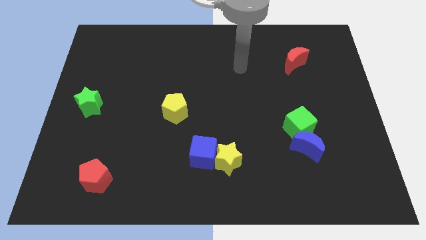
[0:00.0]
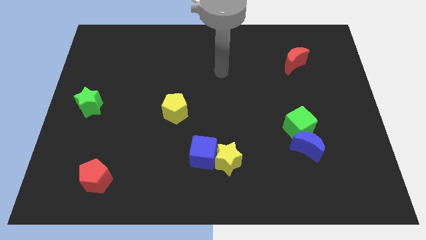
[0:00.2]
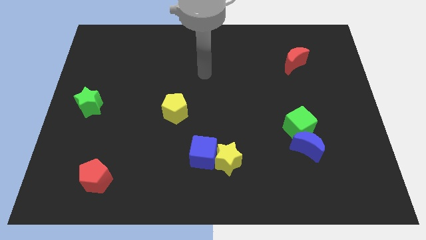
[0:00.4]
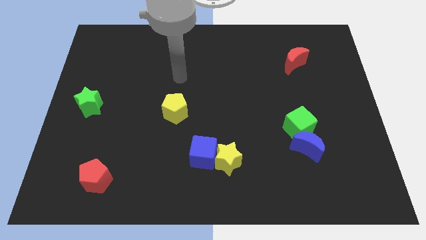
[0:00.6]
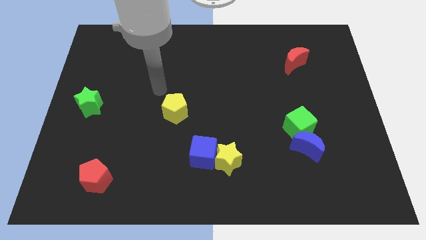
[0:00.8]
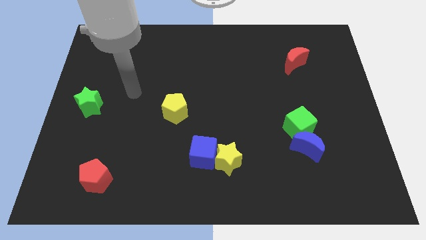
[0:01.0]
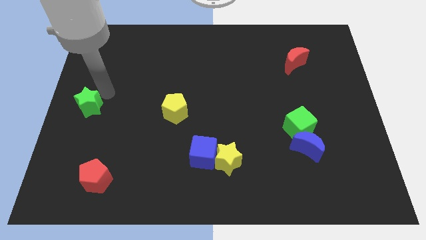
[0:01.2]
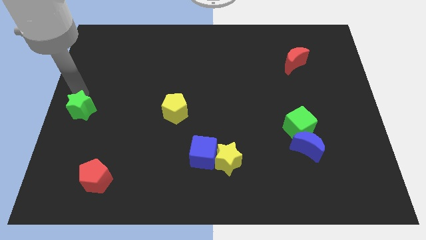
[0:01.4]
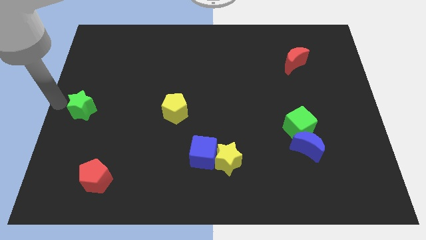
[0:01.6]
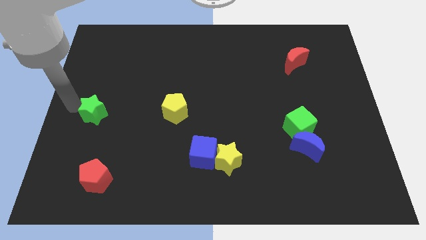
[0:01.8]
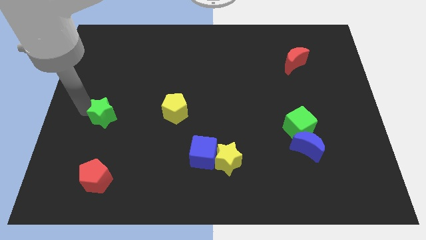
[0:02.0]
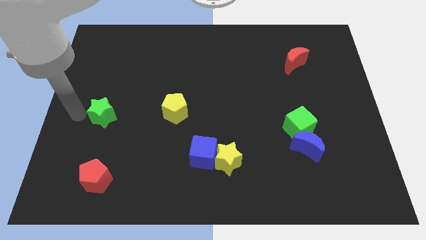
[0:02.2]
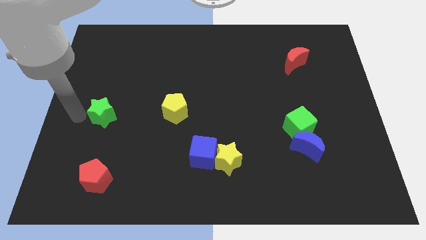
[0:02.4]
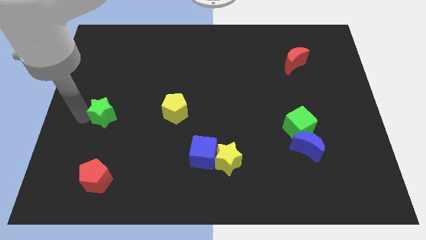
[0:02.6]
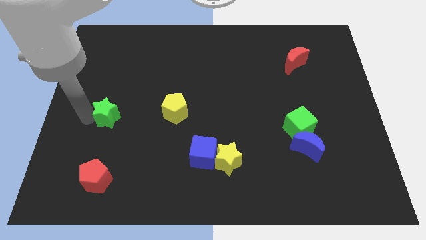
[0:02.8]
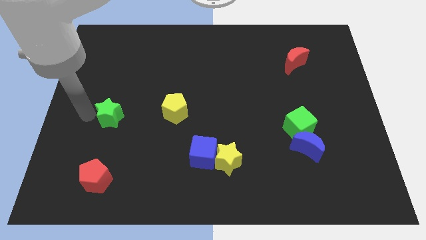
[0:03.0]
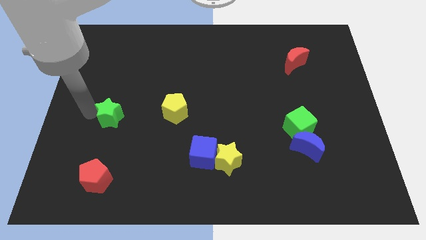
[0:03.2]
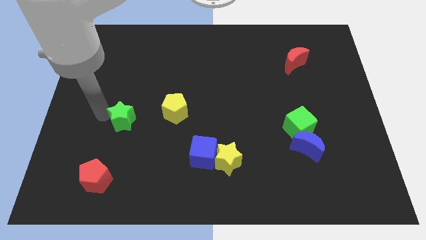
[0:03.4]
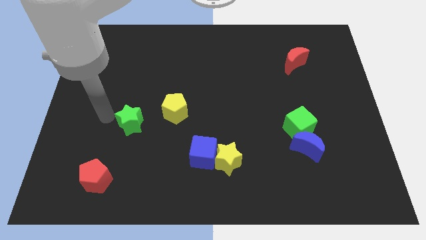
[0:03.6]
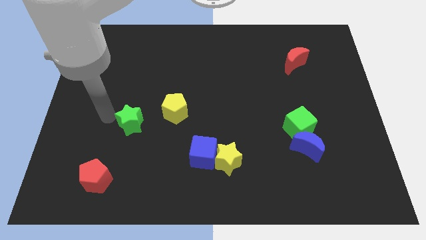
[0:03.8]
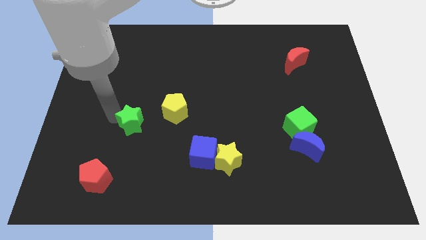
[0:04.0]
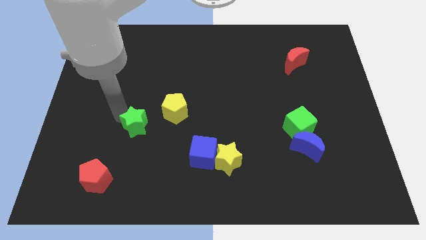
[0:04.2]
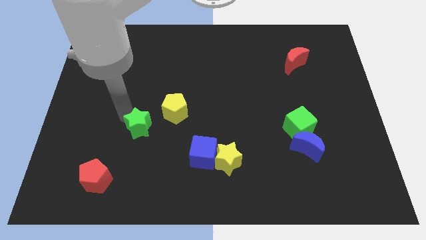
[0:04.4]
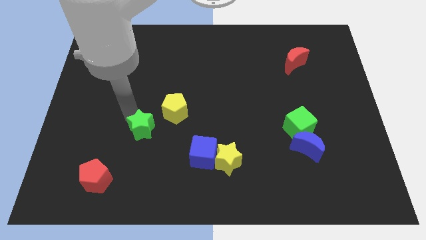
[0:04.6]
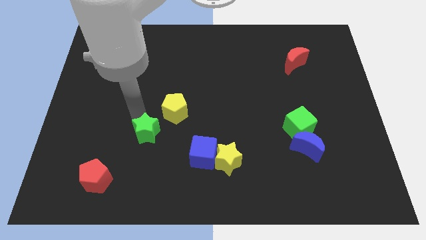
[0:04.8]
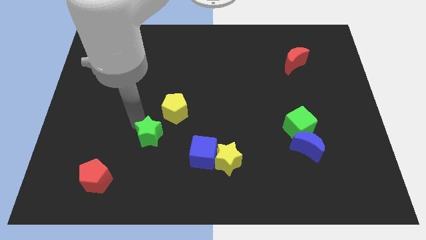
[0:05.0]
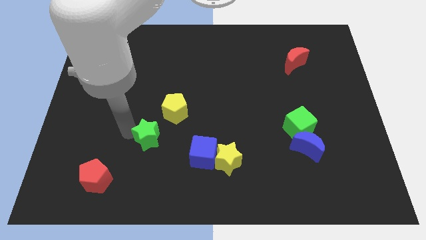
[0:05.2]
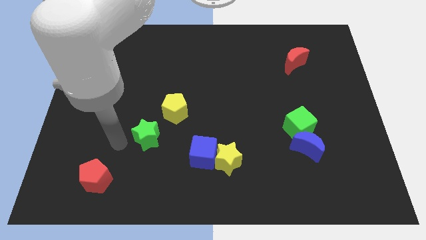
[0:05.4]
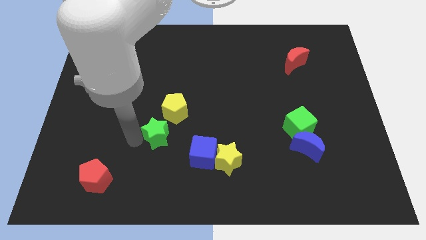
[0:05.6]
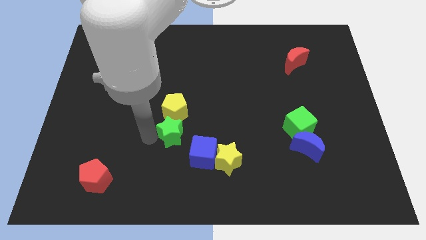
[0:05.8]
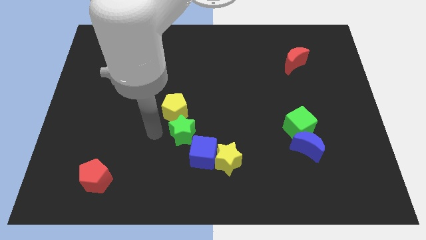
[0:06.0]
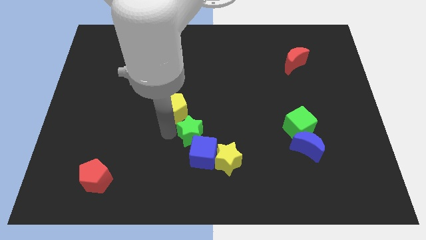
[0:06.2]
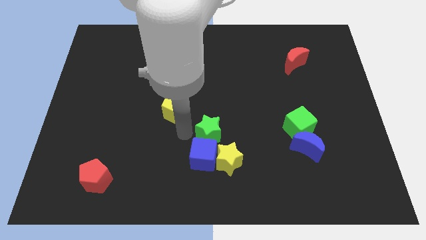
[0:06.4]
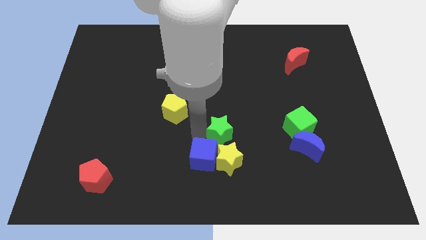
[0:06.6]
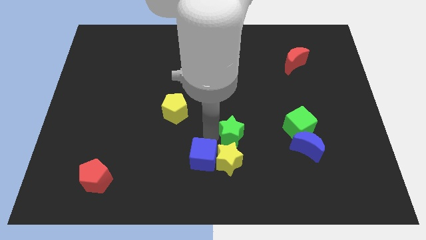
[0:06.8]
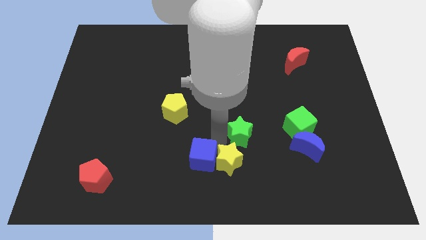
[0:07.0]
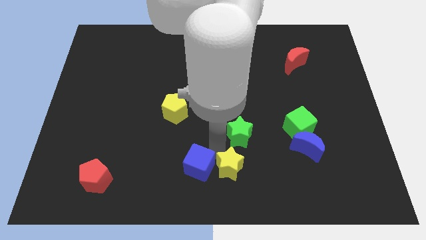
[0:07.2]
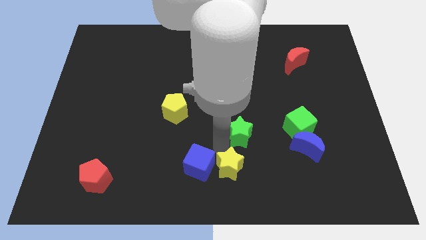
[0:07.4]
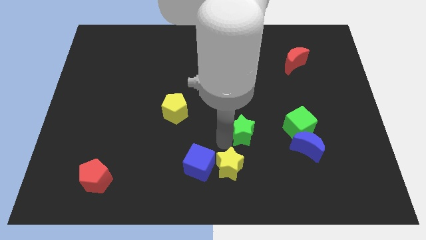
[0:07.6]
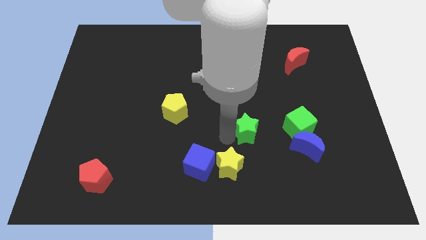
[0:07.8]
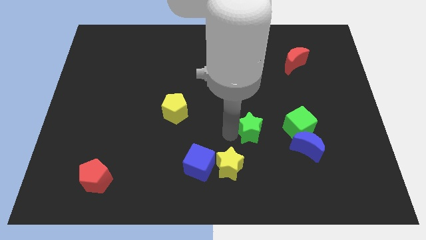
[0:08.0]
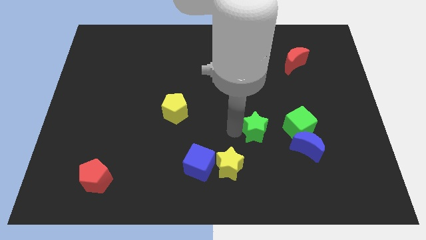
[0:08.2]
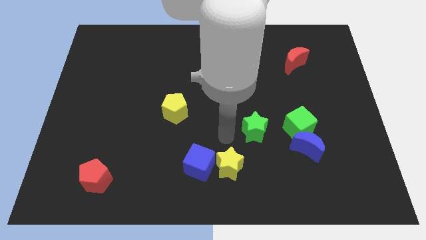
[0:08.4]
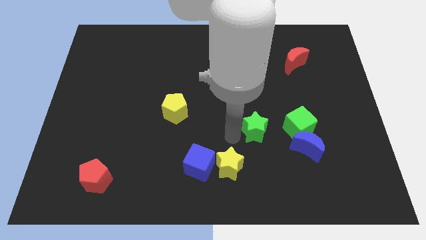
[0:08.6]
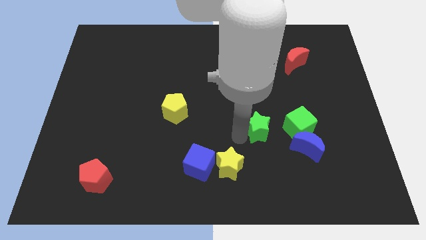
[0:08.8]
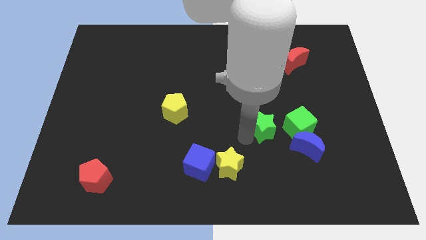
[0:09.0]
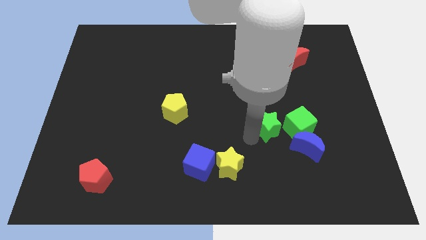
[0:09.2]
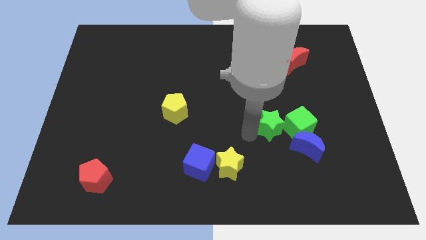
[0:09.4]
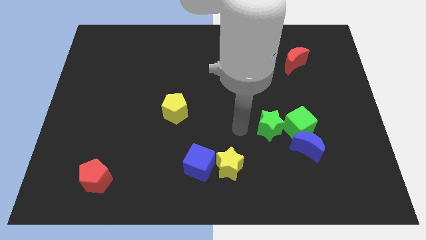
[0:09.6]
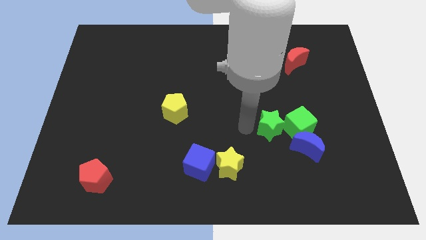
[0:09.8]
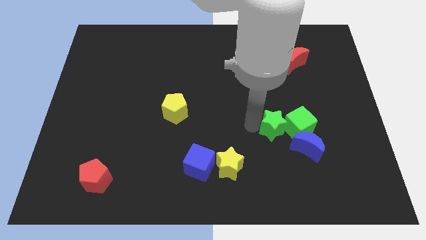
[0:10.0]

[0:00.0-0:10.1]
move the green star to the green cube

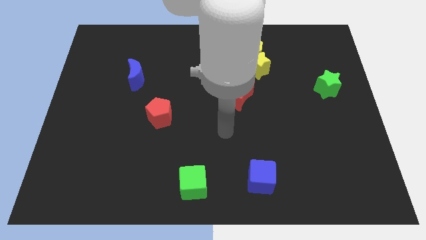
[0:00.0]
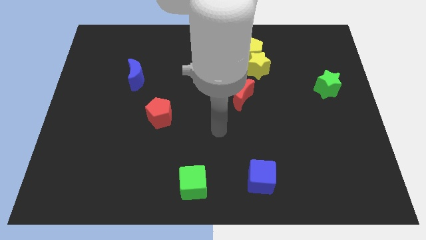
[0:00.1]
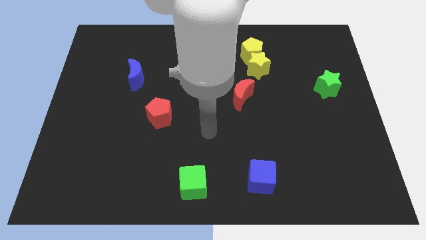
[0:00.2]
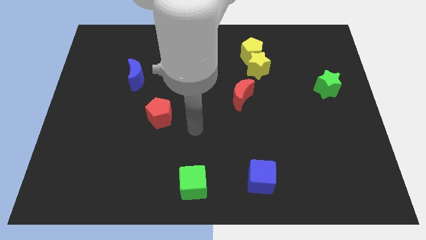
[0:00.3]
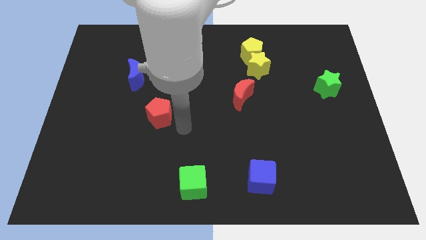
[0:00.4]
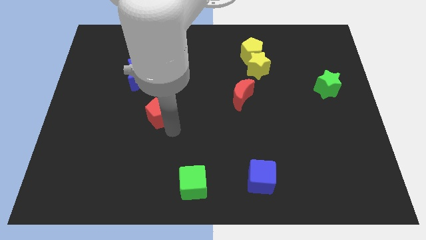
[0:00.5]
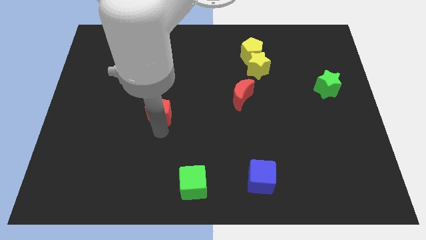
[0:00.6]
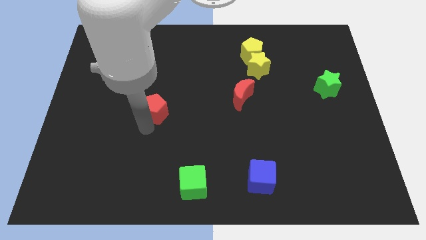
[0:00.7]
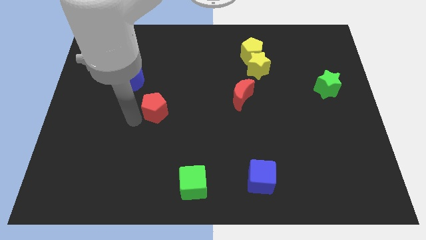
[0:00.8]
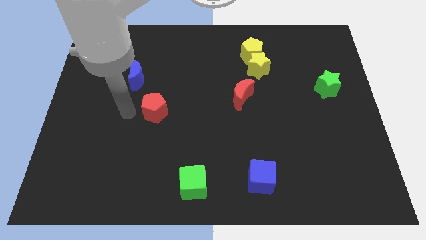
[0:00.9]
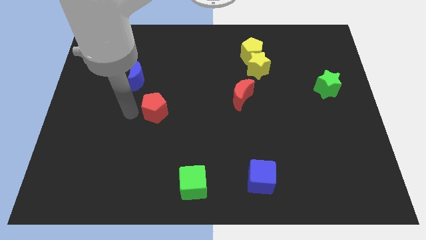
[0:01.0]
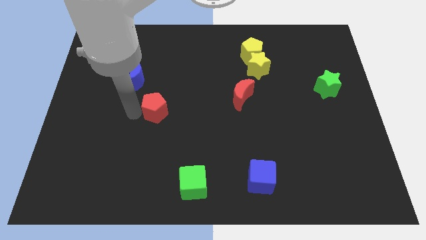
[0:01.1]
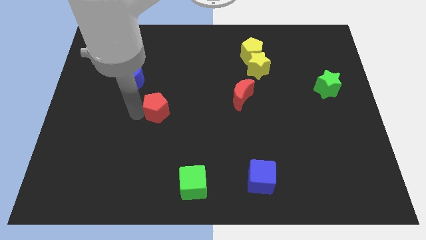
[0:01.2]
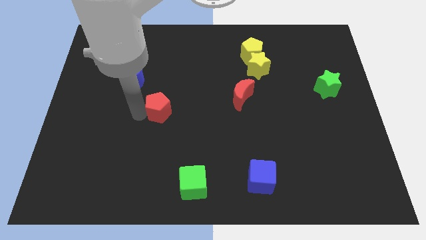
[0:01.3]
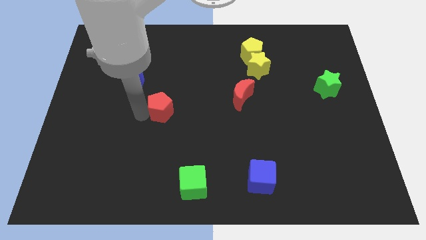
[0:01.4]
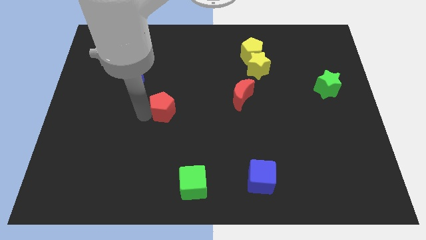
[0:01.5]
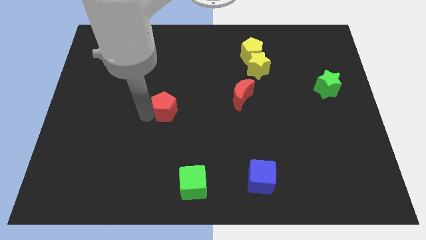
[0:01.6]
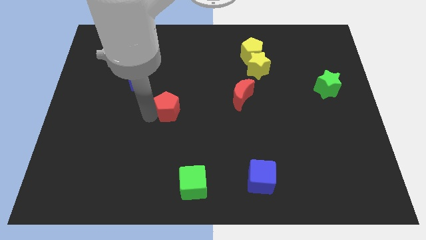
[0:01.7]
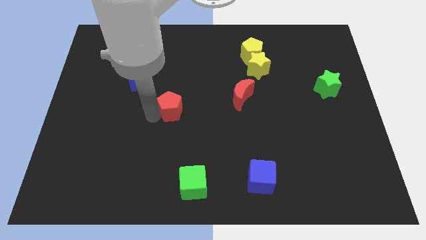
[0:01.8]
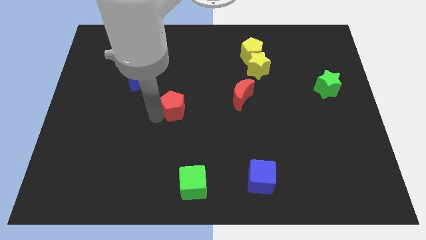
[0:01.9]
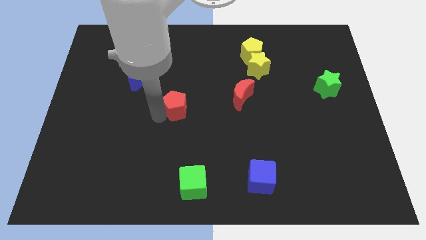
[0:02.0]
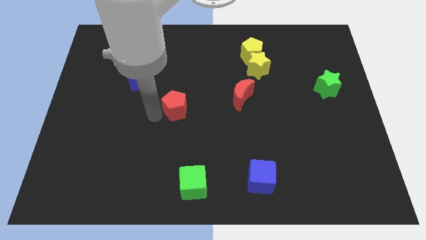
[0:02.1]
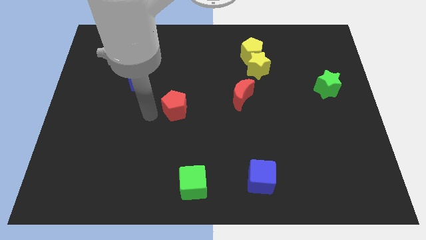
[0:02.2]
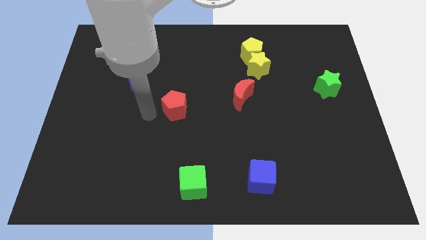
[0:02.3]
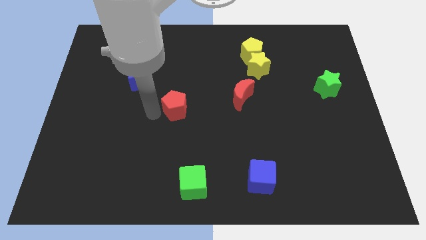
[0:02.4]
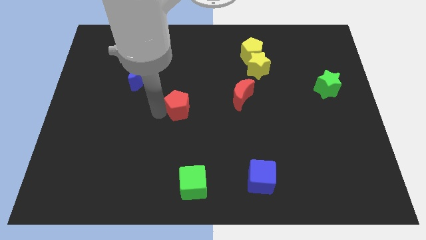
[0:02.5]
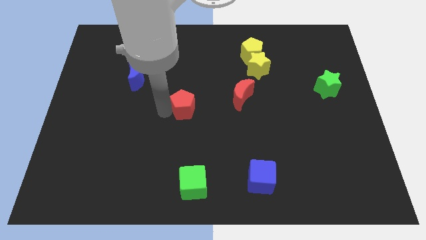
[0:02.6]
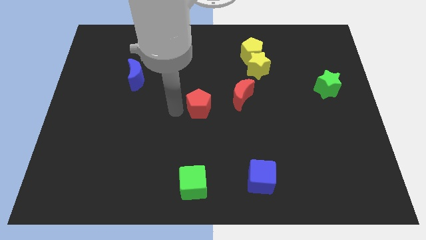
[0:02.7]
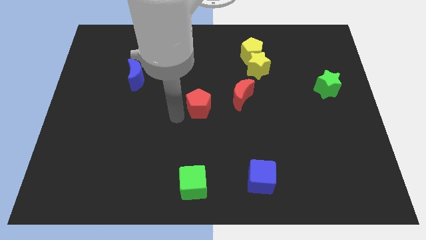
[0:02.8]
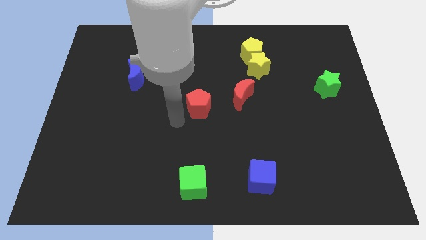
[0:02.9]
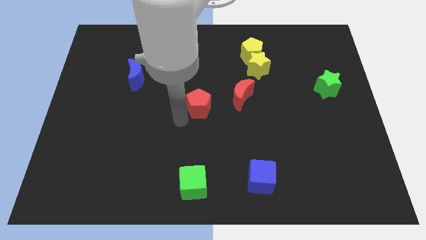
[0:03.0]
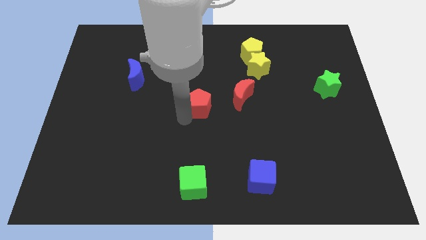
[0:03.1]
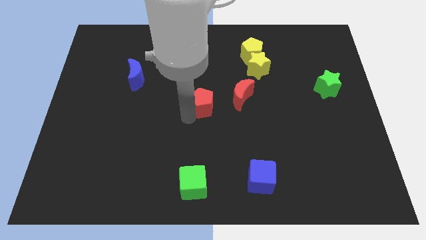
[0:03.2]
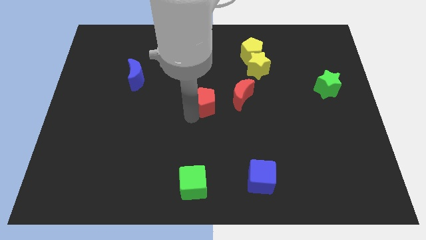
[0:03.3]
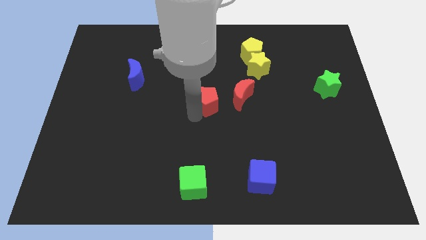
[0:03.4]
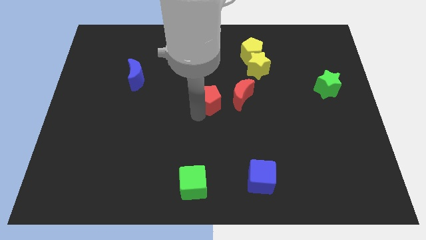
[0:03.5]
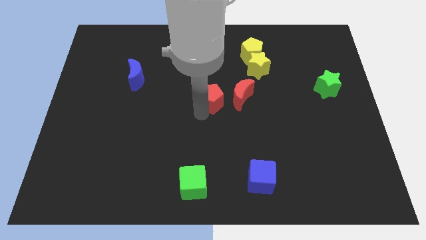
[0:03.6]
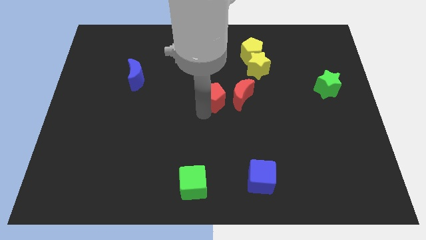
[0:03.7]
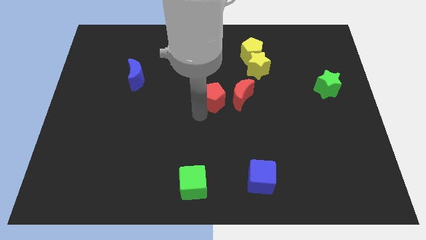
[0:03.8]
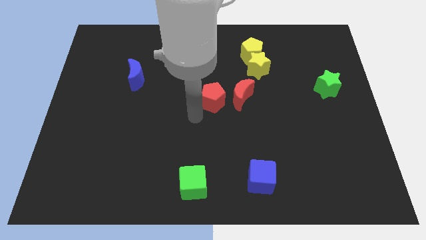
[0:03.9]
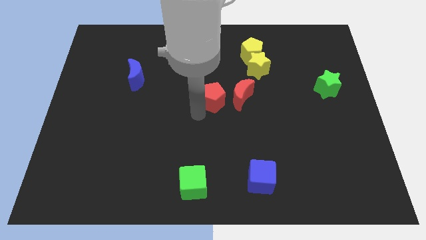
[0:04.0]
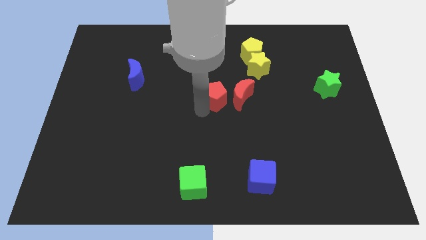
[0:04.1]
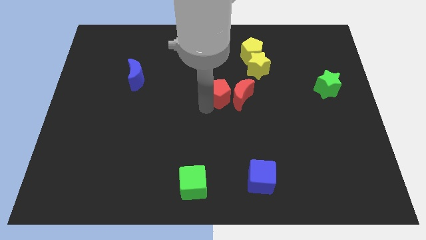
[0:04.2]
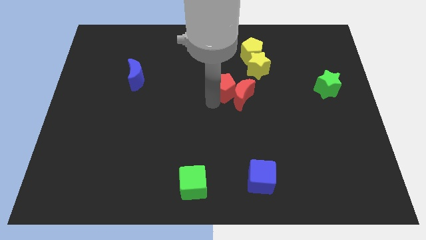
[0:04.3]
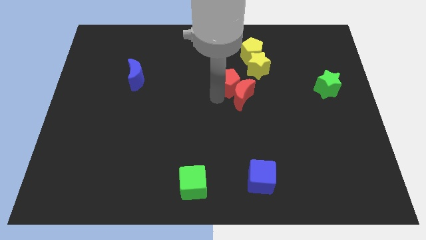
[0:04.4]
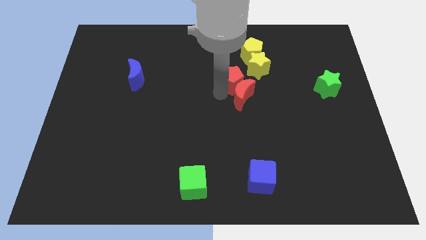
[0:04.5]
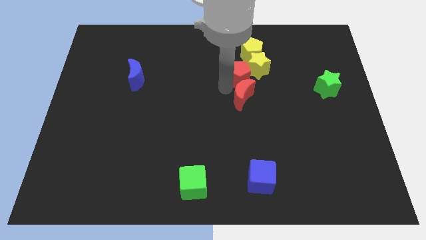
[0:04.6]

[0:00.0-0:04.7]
push the red pentagon to the yellow star
